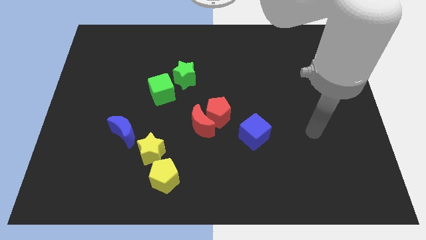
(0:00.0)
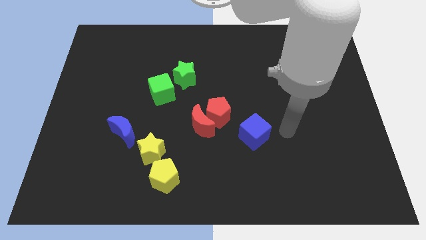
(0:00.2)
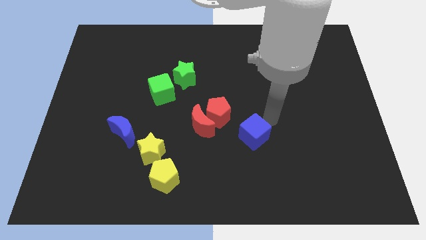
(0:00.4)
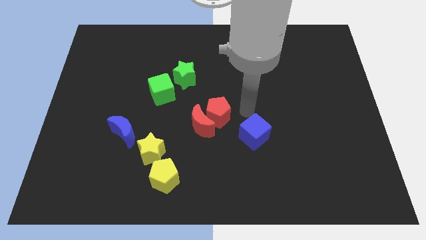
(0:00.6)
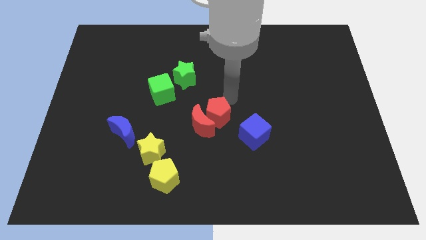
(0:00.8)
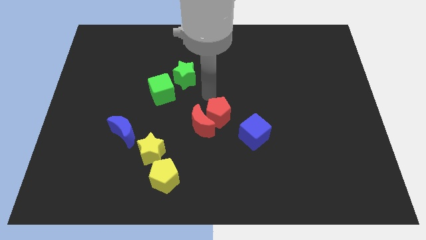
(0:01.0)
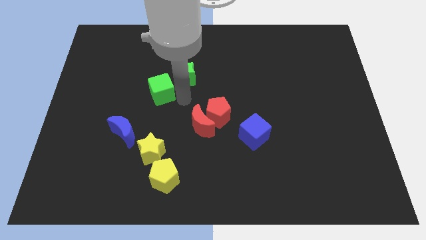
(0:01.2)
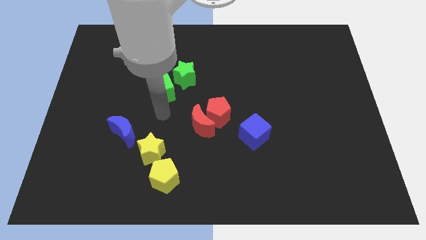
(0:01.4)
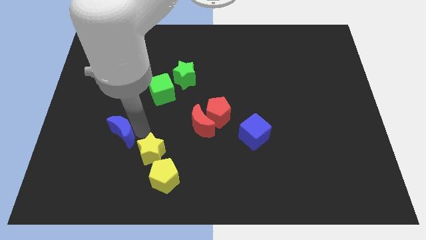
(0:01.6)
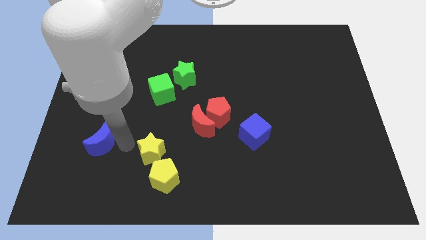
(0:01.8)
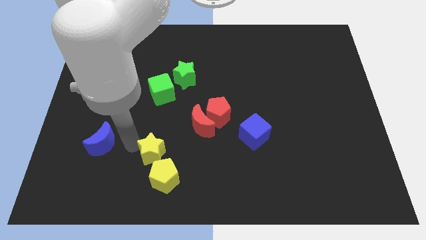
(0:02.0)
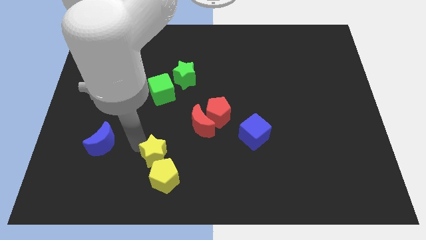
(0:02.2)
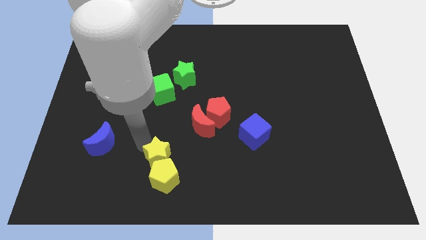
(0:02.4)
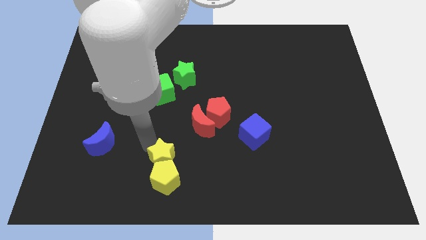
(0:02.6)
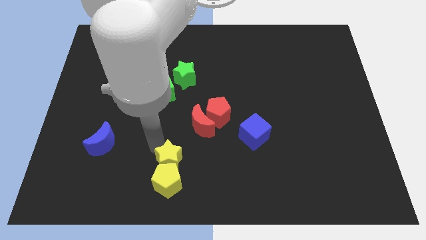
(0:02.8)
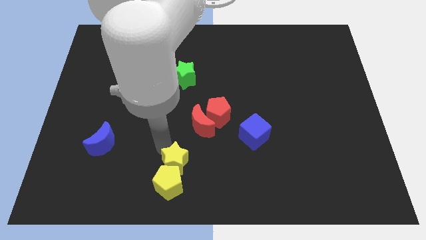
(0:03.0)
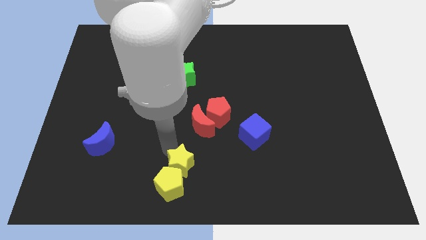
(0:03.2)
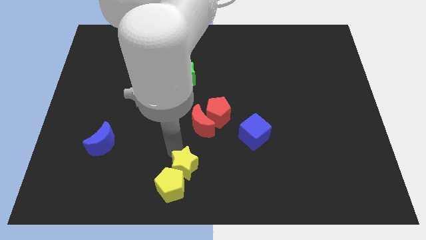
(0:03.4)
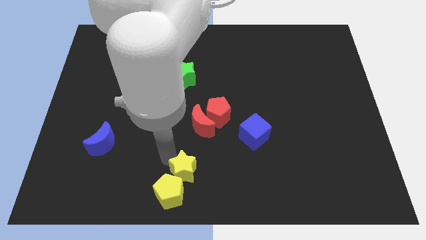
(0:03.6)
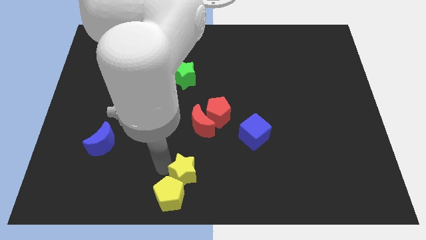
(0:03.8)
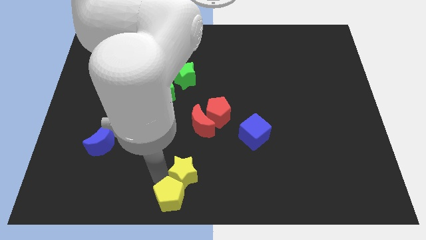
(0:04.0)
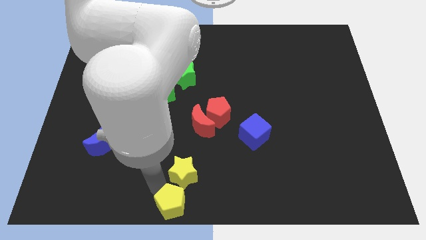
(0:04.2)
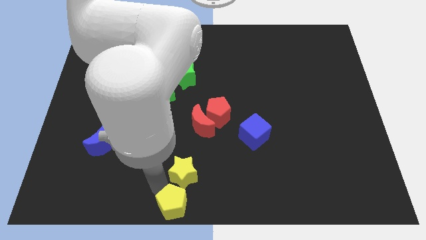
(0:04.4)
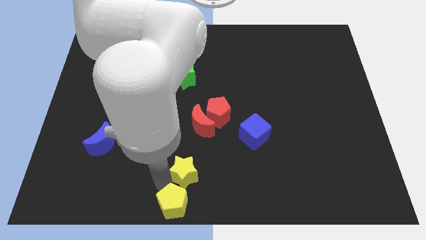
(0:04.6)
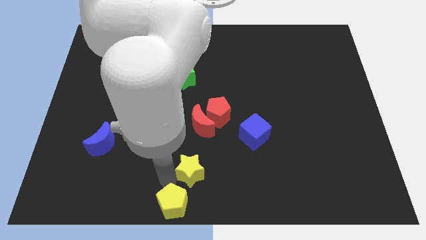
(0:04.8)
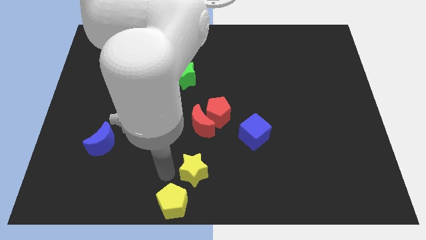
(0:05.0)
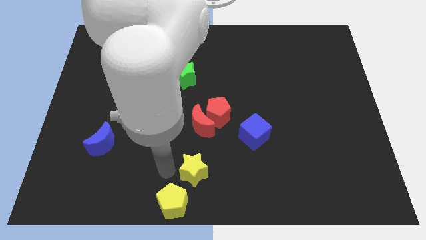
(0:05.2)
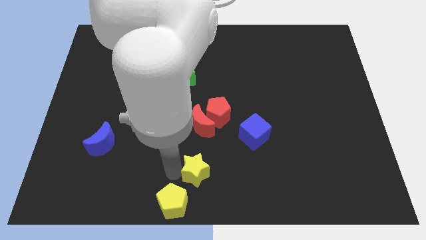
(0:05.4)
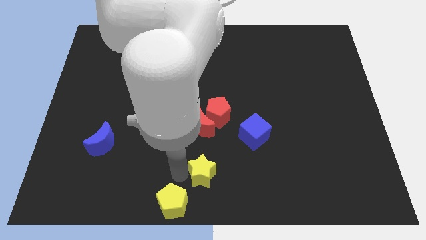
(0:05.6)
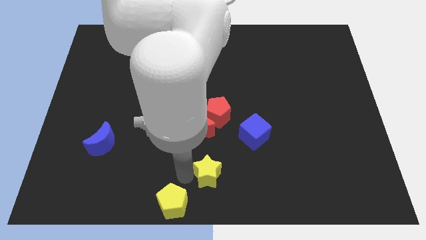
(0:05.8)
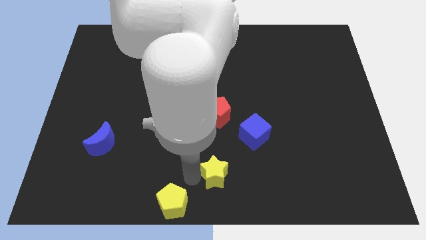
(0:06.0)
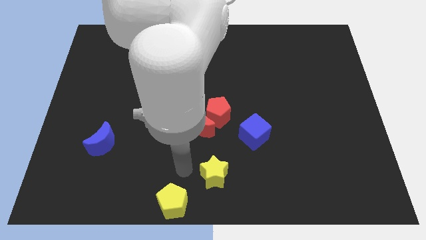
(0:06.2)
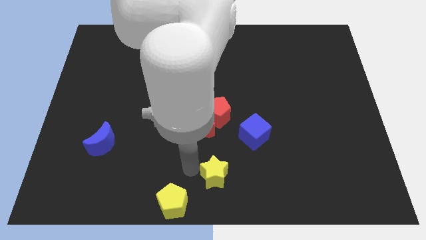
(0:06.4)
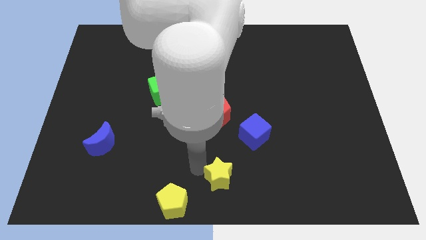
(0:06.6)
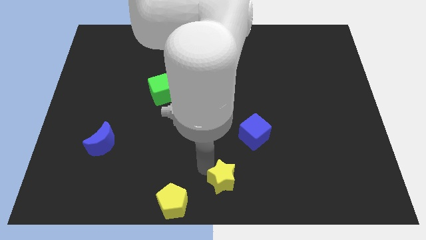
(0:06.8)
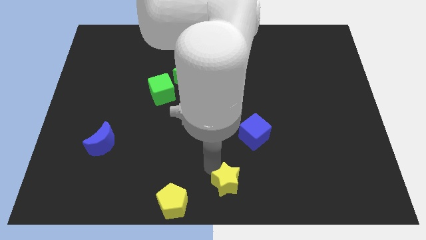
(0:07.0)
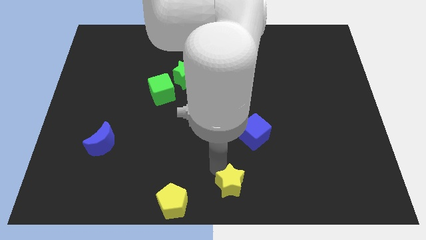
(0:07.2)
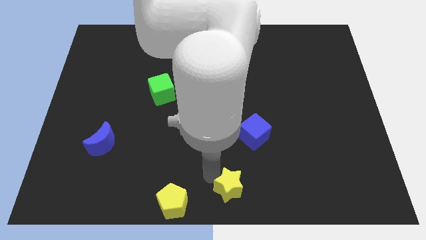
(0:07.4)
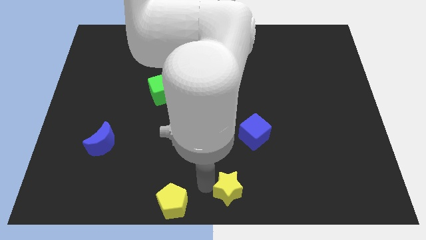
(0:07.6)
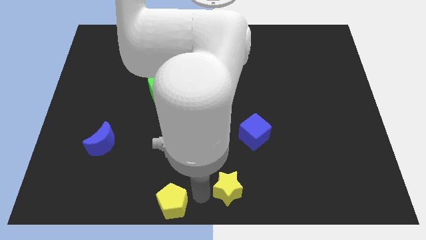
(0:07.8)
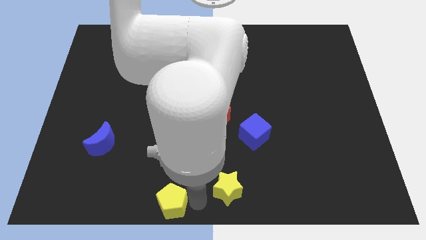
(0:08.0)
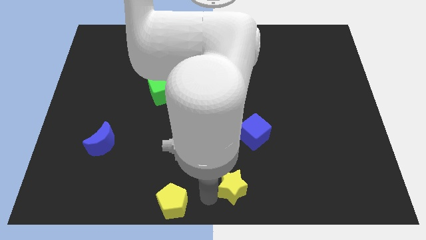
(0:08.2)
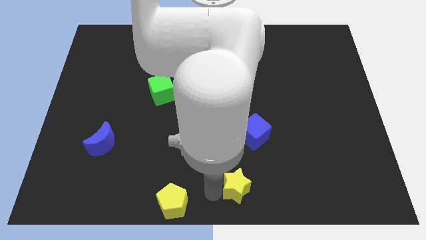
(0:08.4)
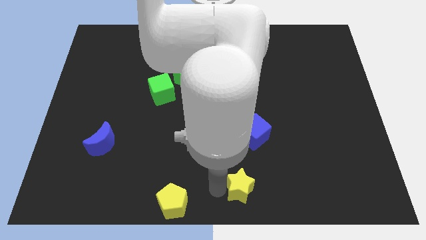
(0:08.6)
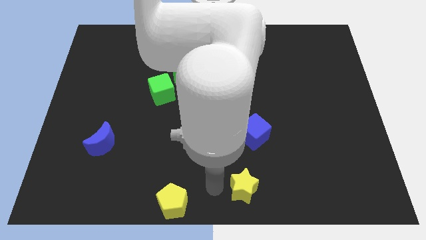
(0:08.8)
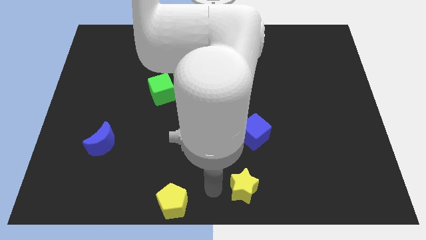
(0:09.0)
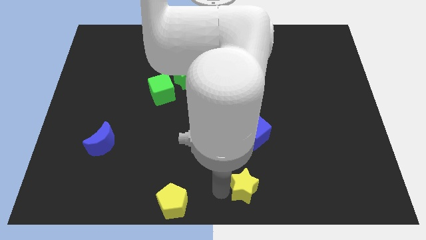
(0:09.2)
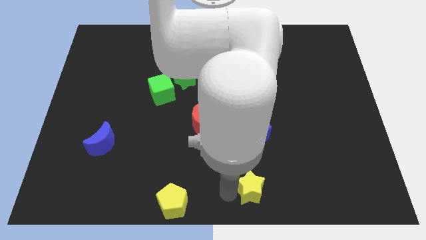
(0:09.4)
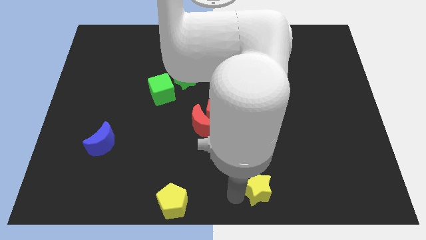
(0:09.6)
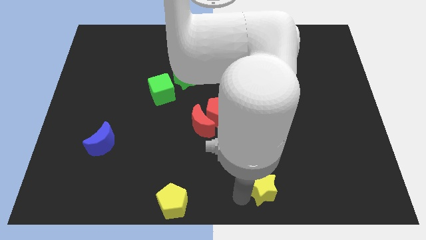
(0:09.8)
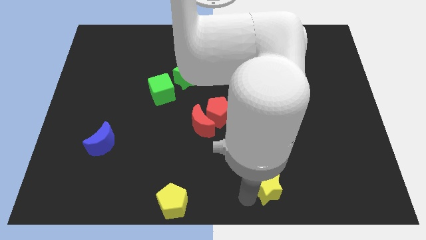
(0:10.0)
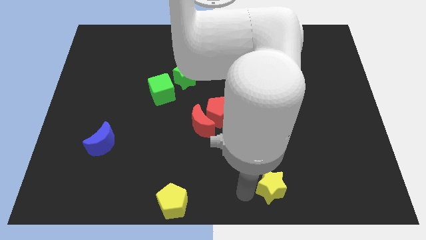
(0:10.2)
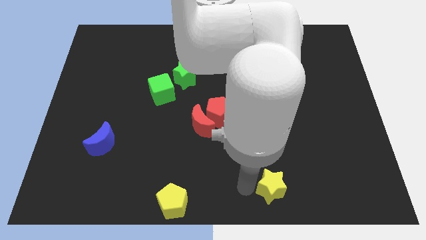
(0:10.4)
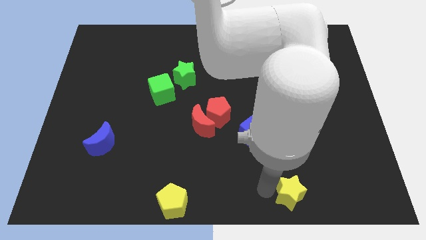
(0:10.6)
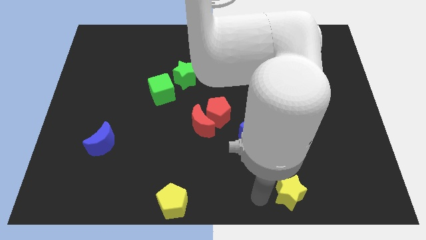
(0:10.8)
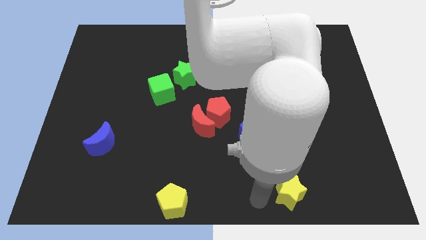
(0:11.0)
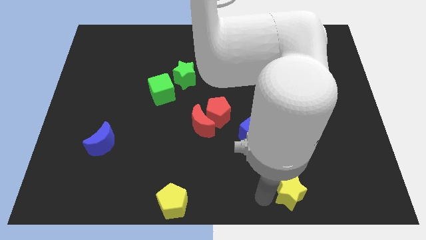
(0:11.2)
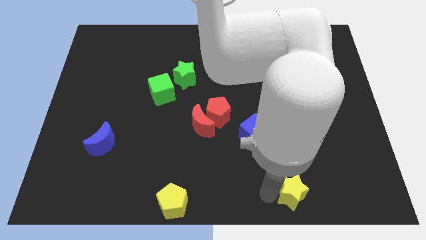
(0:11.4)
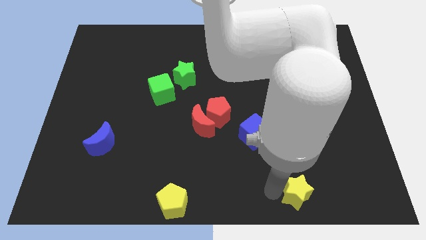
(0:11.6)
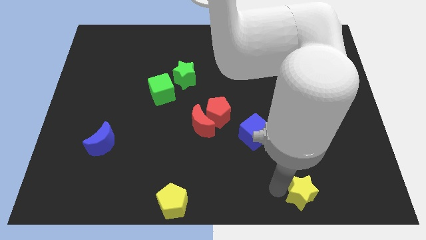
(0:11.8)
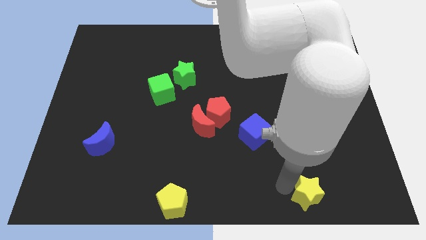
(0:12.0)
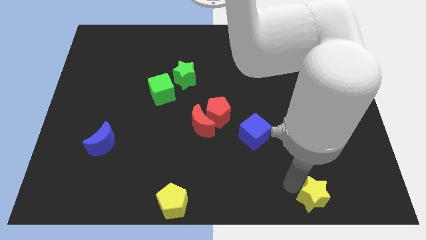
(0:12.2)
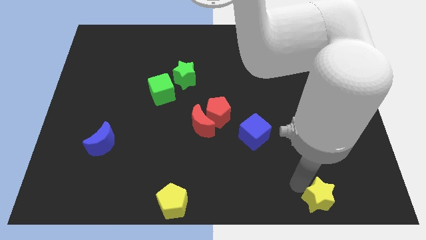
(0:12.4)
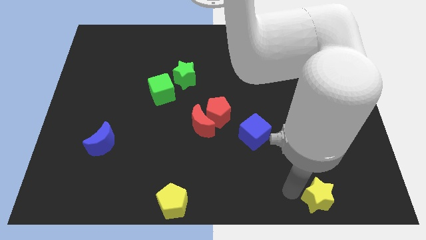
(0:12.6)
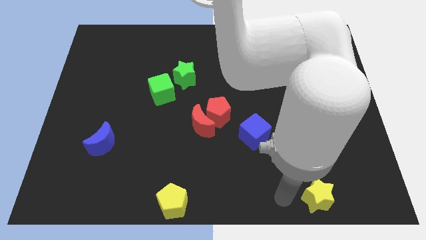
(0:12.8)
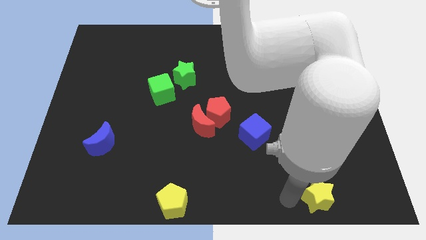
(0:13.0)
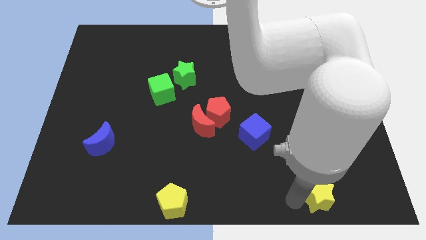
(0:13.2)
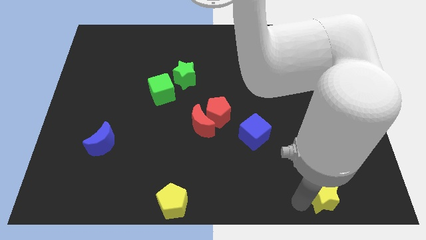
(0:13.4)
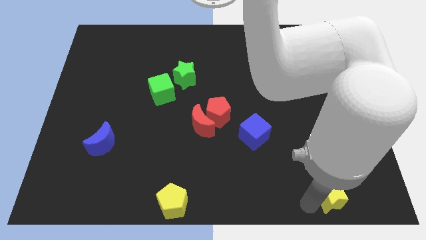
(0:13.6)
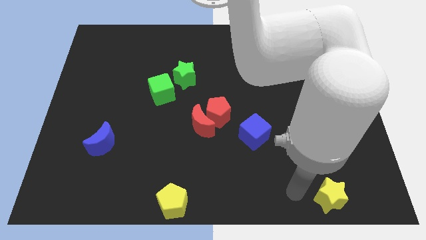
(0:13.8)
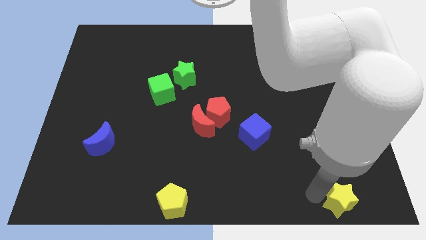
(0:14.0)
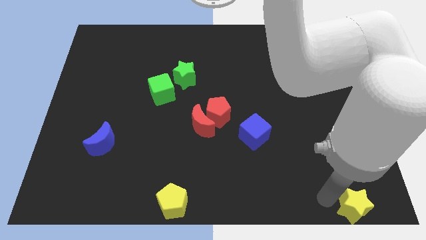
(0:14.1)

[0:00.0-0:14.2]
push the yellow star to the bottom right corner
